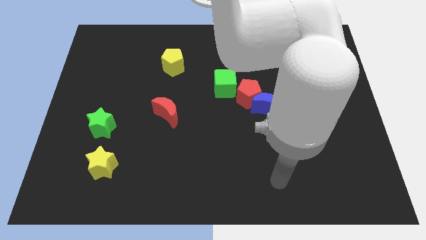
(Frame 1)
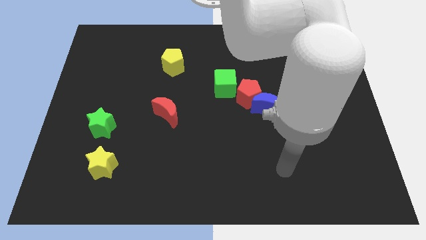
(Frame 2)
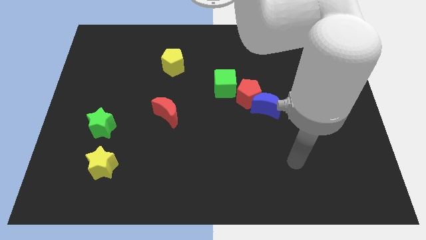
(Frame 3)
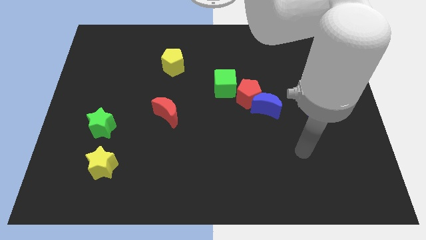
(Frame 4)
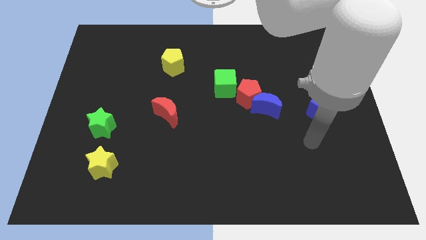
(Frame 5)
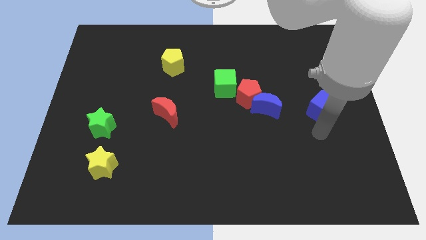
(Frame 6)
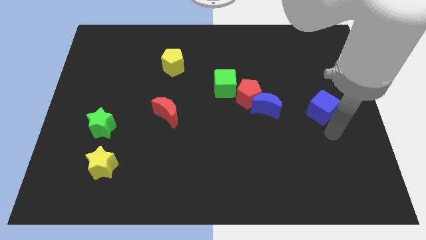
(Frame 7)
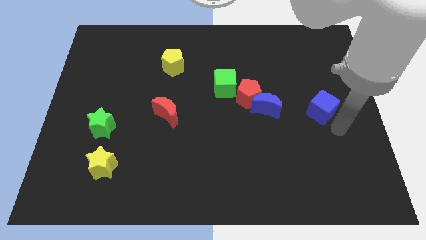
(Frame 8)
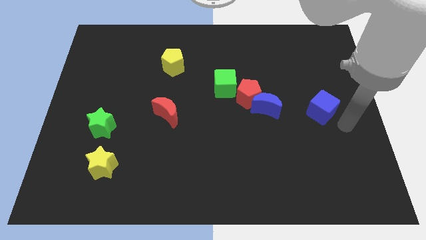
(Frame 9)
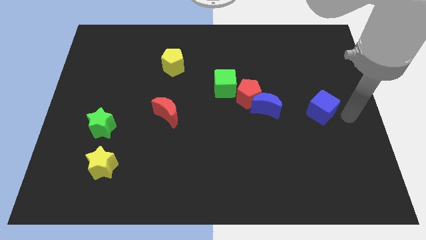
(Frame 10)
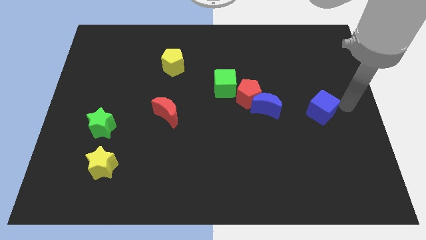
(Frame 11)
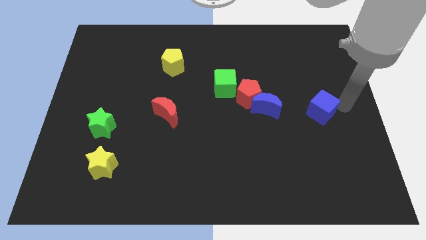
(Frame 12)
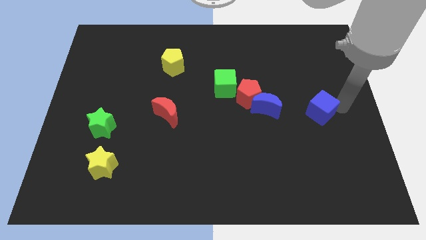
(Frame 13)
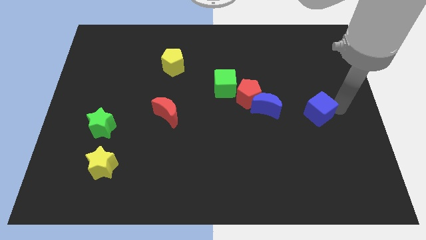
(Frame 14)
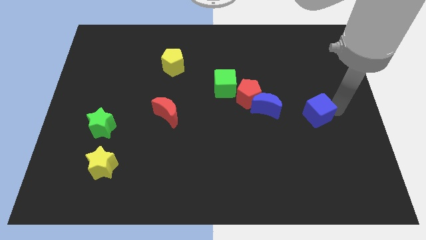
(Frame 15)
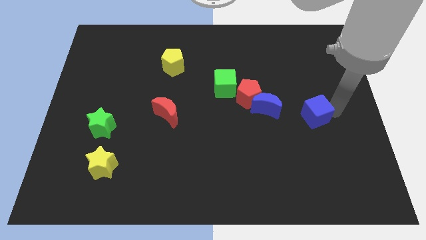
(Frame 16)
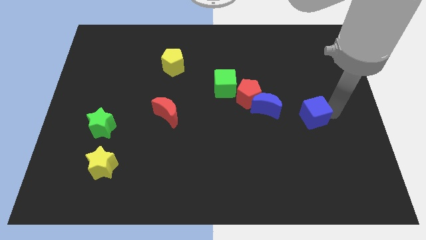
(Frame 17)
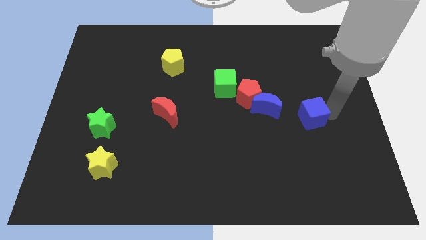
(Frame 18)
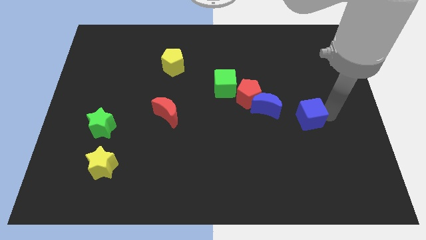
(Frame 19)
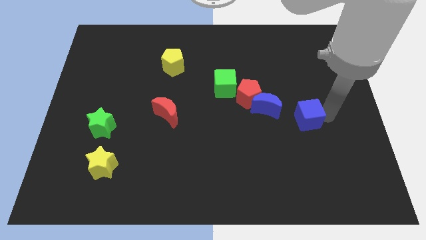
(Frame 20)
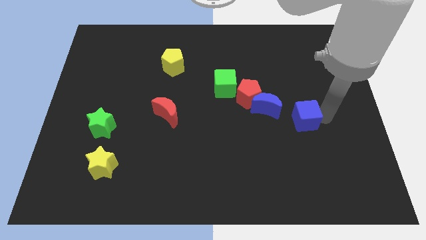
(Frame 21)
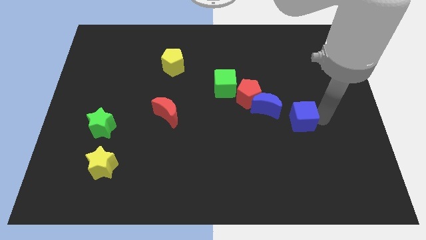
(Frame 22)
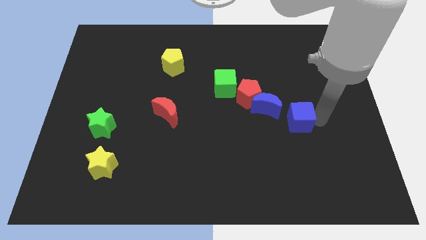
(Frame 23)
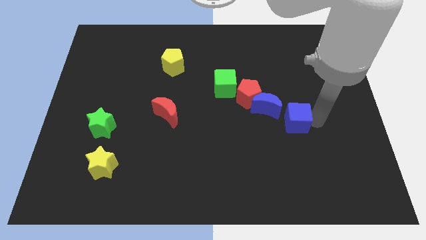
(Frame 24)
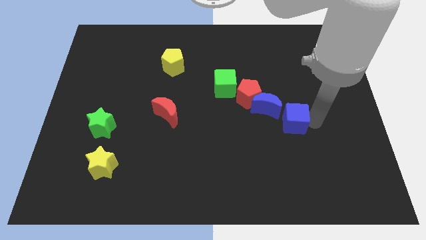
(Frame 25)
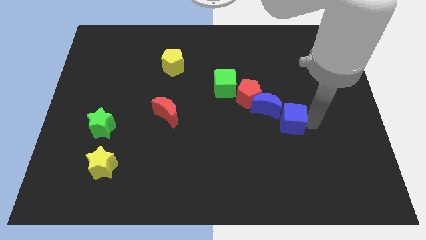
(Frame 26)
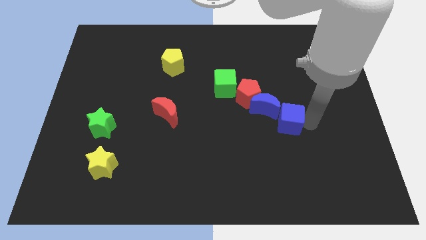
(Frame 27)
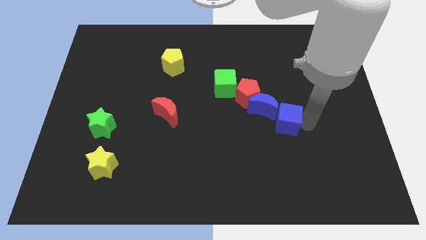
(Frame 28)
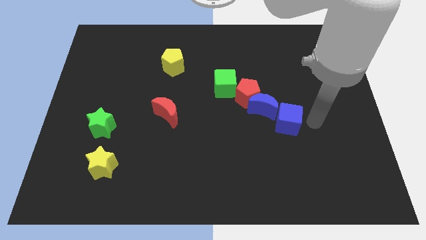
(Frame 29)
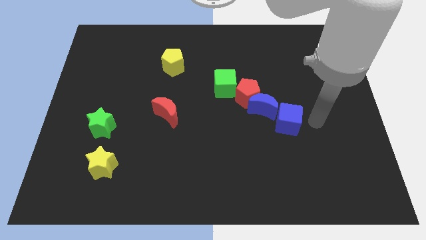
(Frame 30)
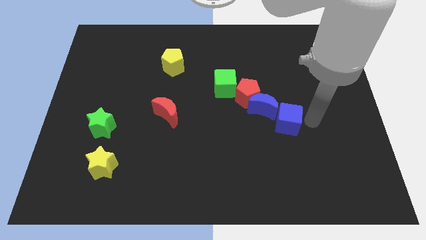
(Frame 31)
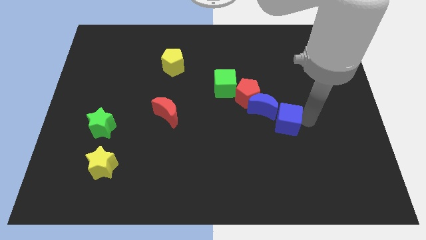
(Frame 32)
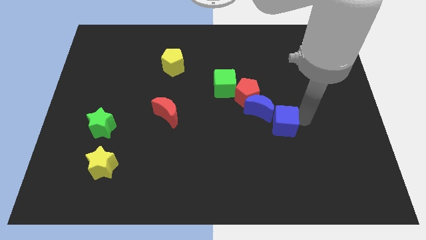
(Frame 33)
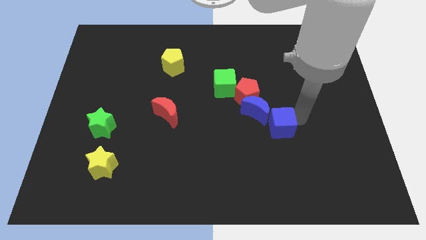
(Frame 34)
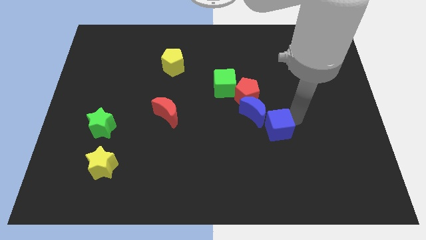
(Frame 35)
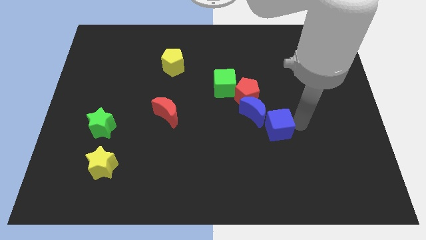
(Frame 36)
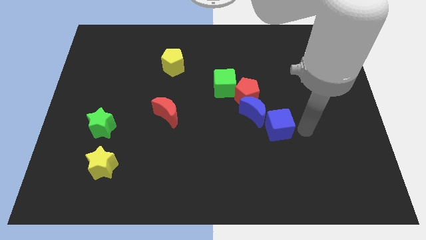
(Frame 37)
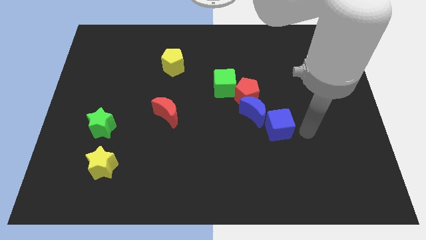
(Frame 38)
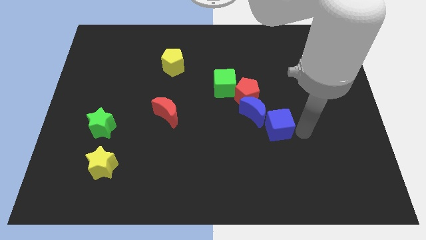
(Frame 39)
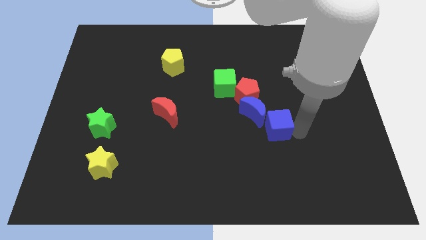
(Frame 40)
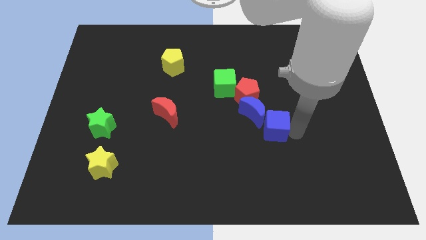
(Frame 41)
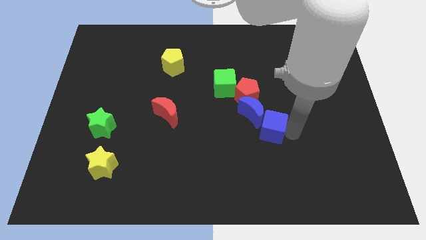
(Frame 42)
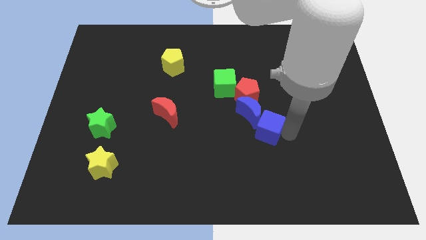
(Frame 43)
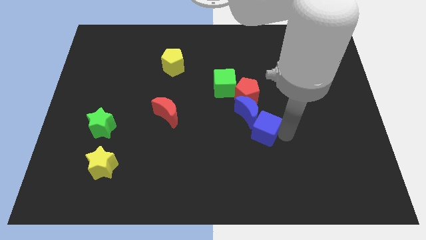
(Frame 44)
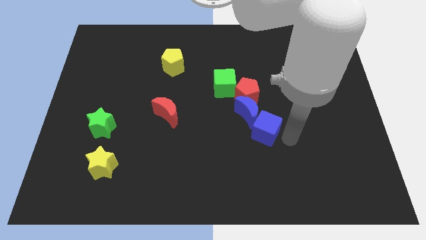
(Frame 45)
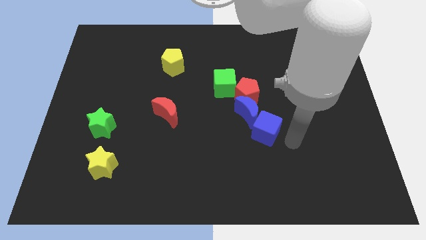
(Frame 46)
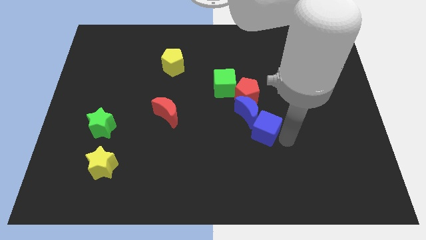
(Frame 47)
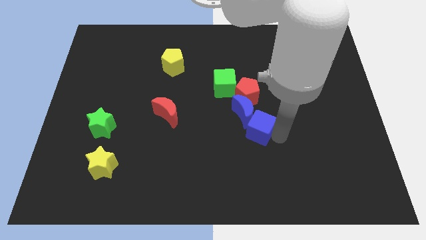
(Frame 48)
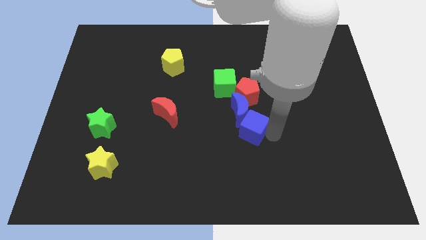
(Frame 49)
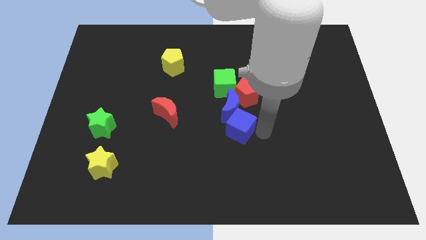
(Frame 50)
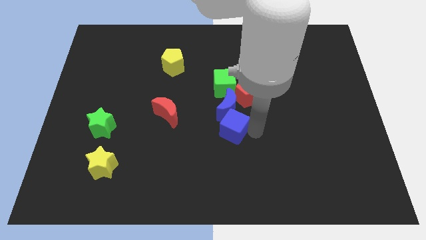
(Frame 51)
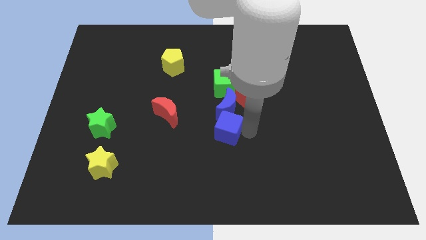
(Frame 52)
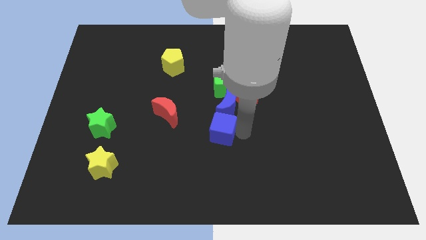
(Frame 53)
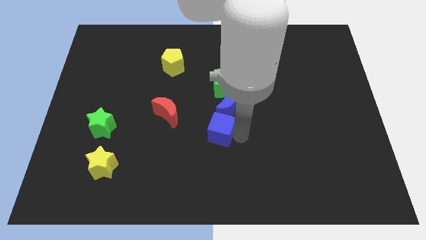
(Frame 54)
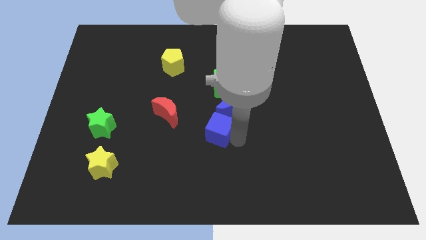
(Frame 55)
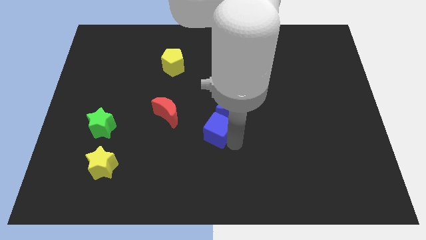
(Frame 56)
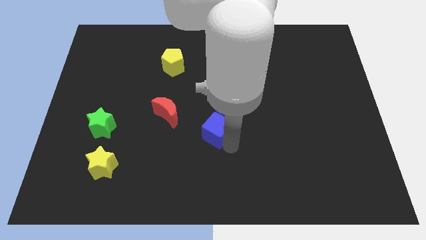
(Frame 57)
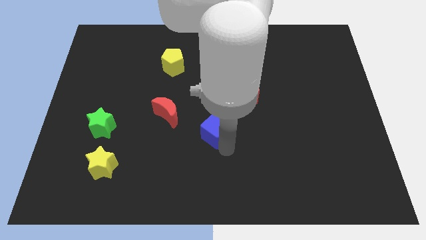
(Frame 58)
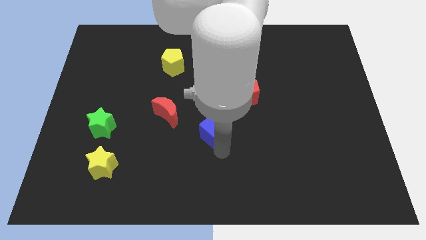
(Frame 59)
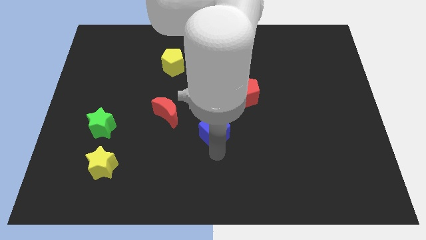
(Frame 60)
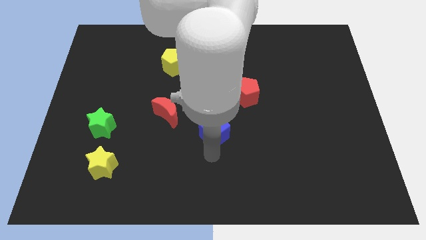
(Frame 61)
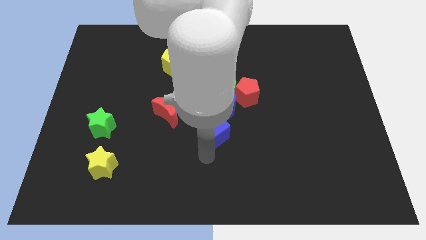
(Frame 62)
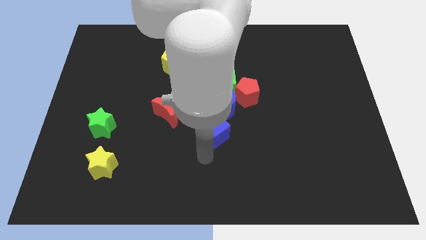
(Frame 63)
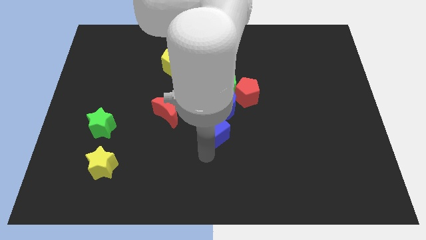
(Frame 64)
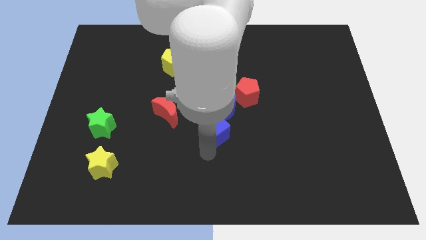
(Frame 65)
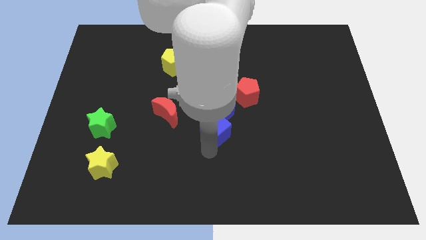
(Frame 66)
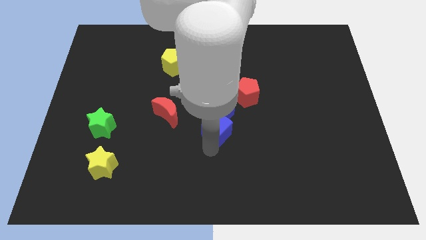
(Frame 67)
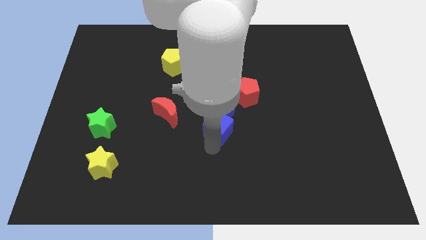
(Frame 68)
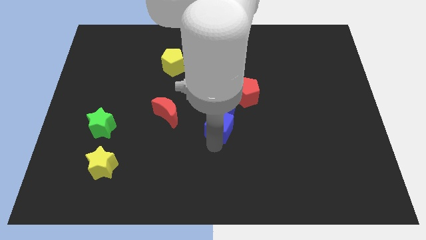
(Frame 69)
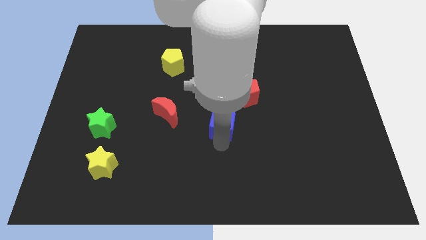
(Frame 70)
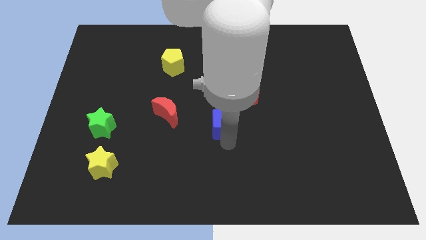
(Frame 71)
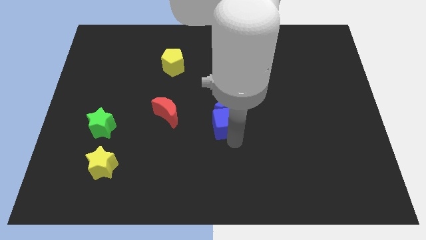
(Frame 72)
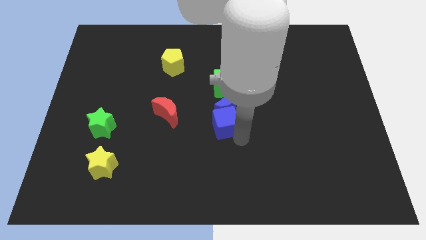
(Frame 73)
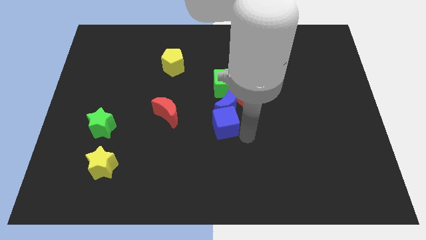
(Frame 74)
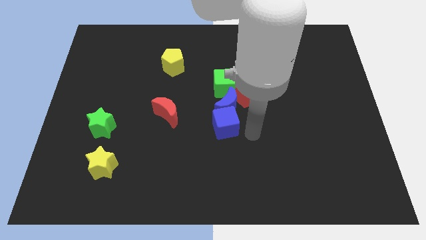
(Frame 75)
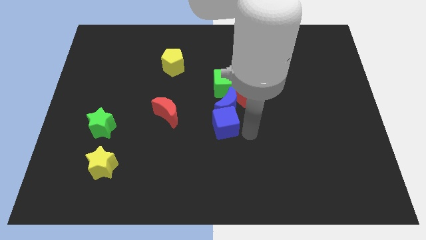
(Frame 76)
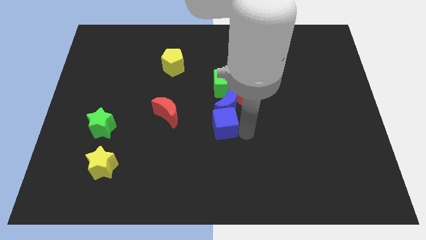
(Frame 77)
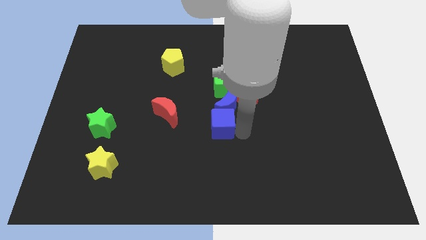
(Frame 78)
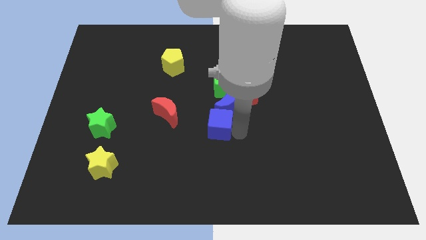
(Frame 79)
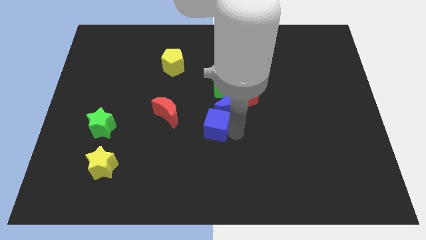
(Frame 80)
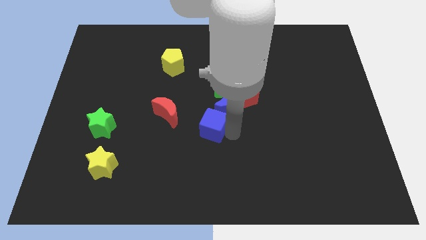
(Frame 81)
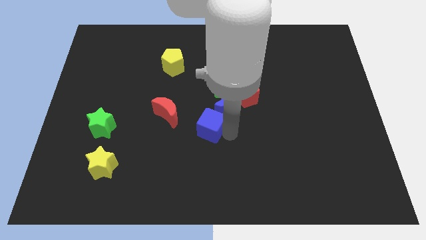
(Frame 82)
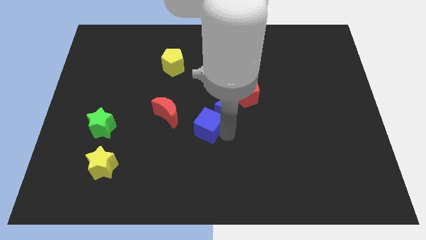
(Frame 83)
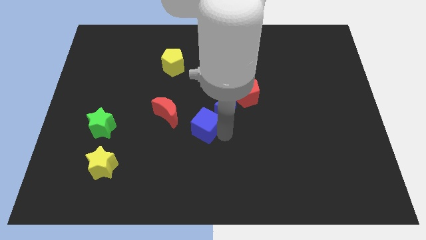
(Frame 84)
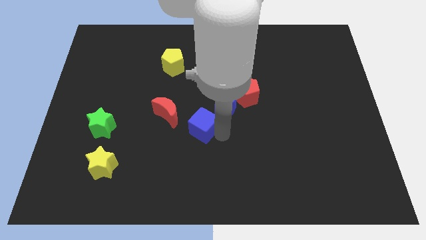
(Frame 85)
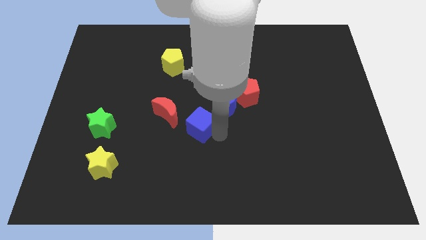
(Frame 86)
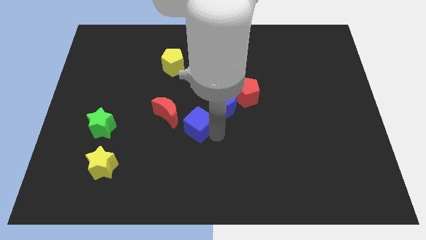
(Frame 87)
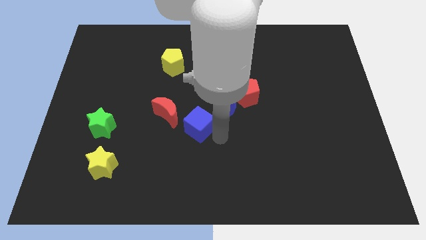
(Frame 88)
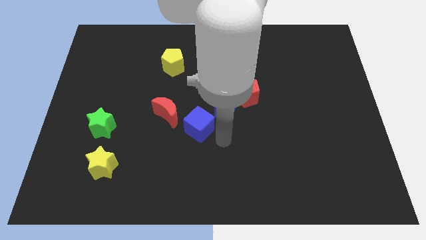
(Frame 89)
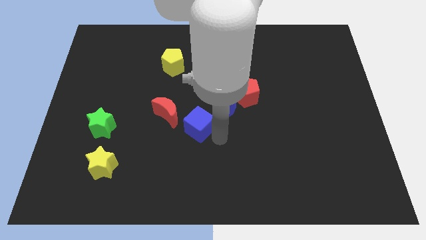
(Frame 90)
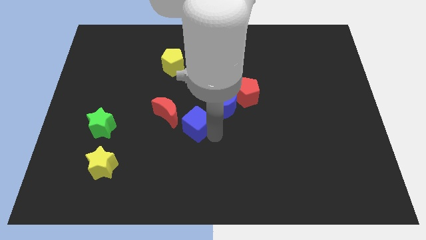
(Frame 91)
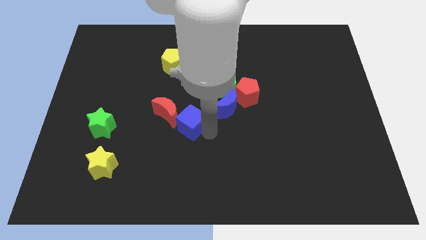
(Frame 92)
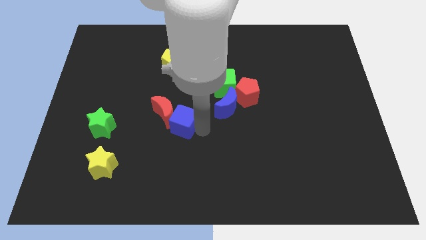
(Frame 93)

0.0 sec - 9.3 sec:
put the blue cube towards the red moon
